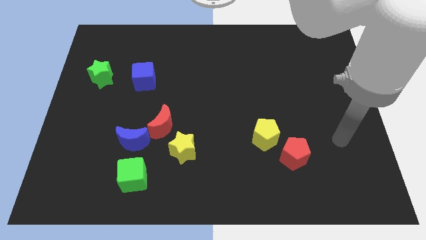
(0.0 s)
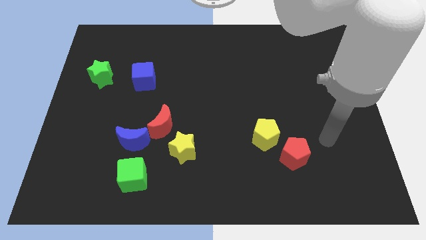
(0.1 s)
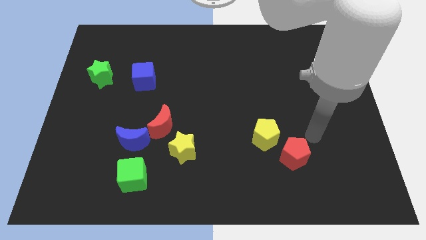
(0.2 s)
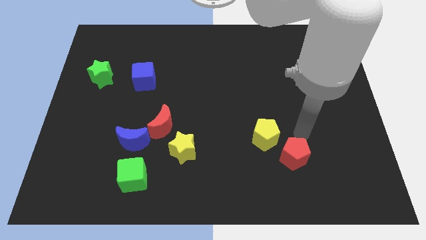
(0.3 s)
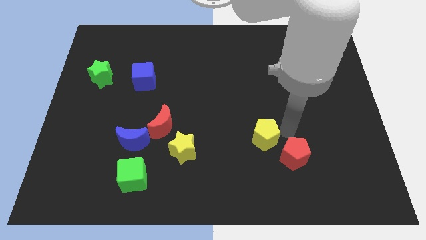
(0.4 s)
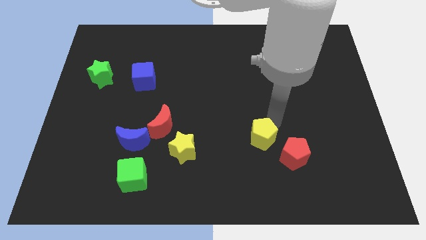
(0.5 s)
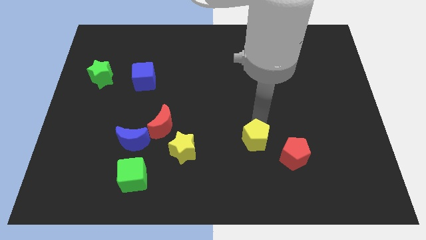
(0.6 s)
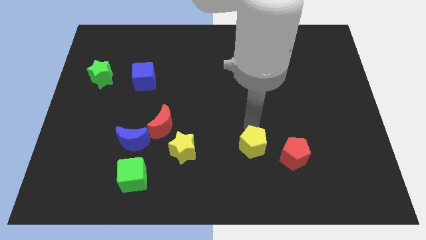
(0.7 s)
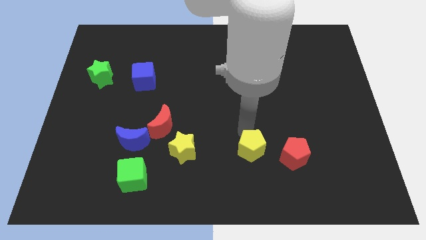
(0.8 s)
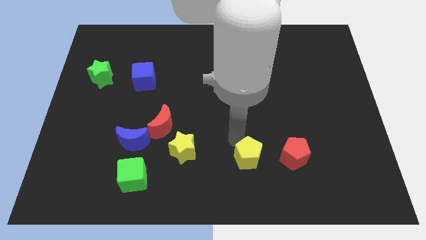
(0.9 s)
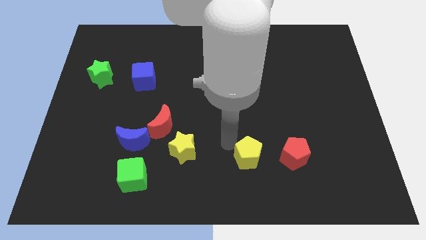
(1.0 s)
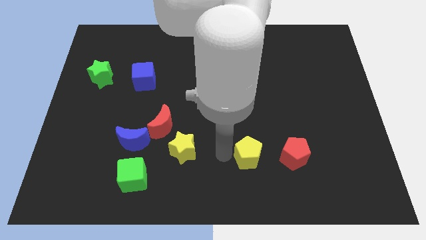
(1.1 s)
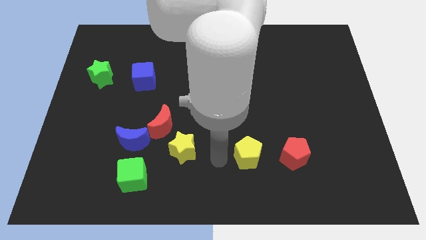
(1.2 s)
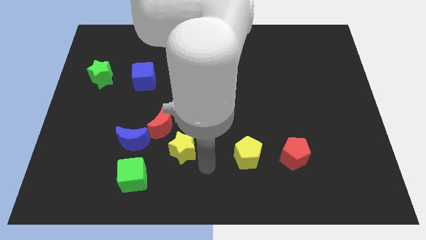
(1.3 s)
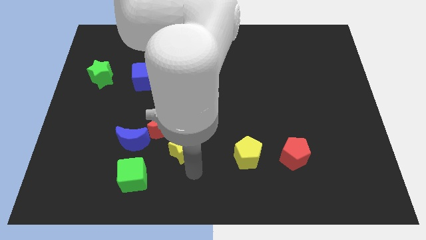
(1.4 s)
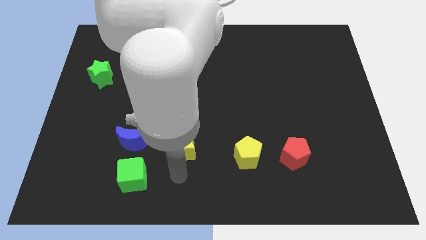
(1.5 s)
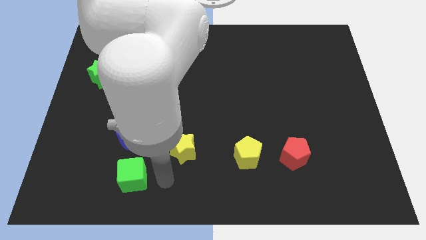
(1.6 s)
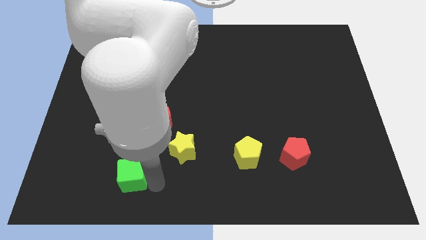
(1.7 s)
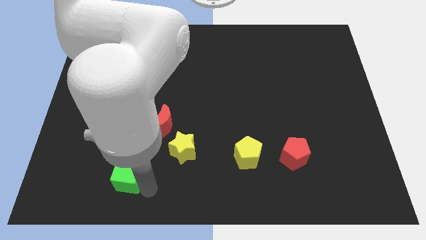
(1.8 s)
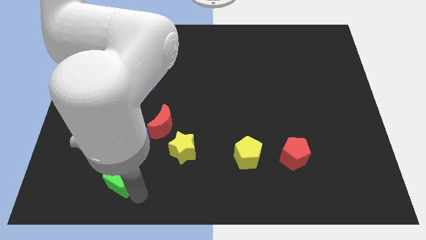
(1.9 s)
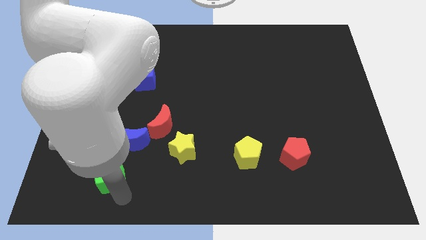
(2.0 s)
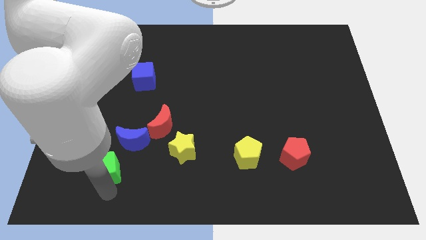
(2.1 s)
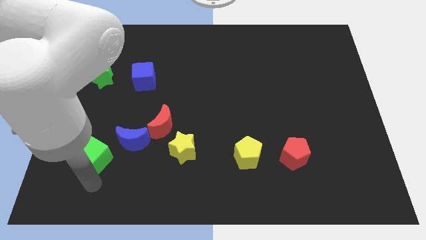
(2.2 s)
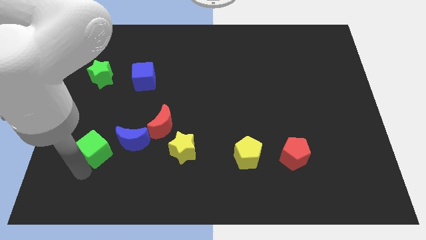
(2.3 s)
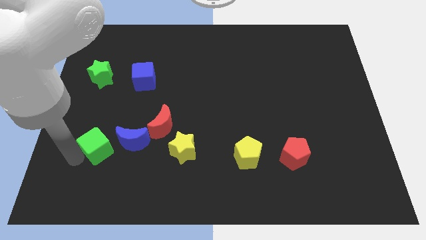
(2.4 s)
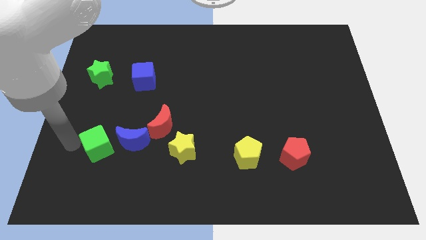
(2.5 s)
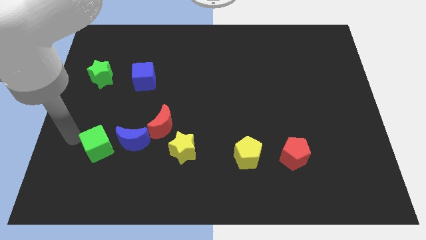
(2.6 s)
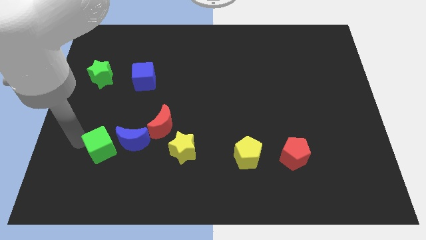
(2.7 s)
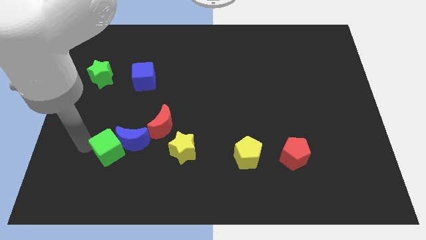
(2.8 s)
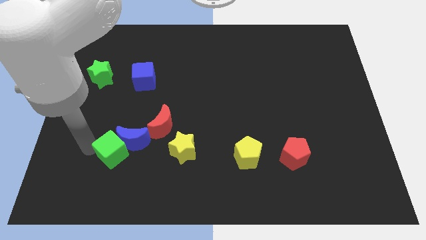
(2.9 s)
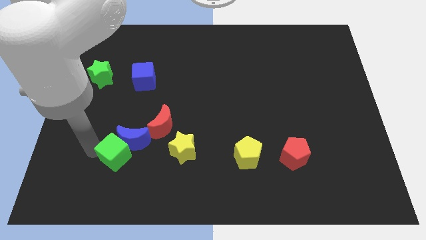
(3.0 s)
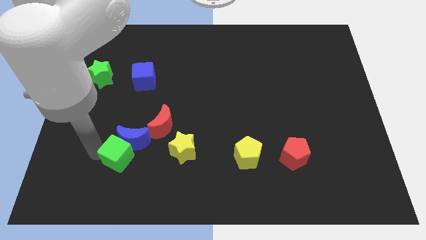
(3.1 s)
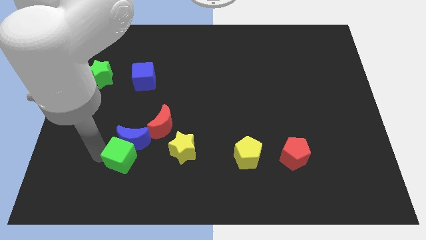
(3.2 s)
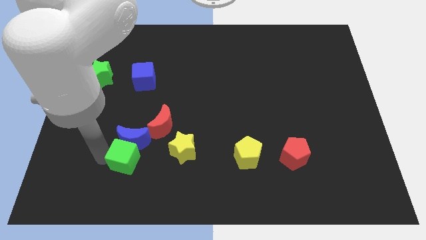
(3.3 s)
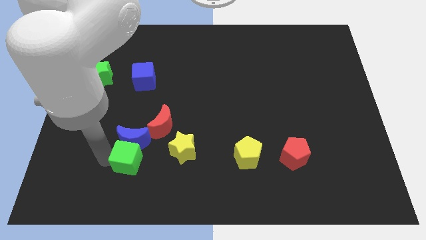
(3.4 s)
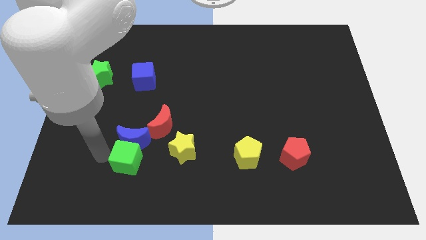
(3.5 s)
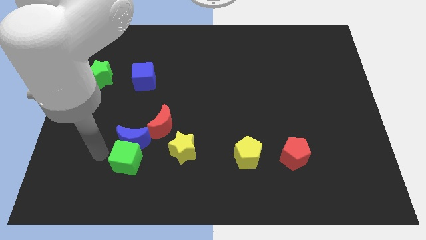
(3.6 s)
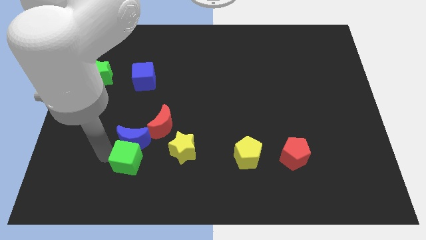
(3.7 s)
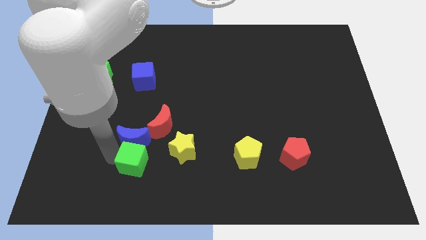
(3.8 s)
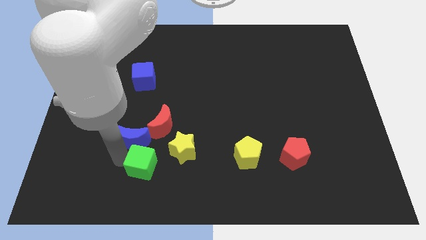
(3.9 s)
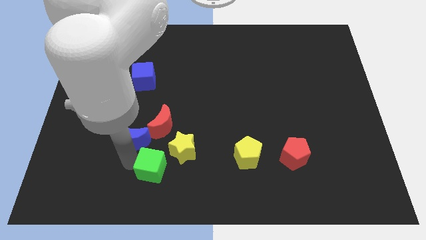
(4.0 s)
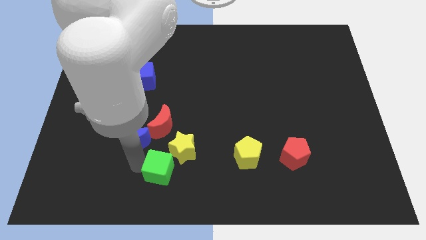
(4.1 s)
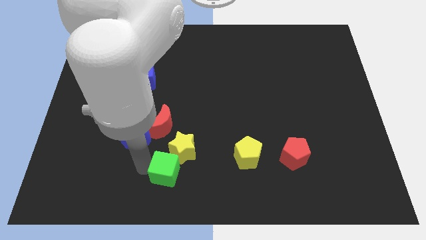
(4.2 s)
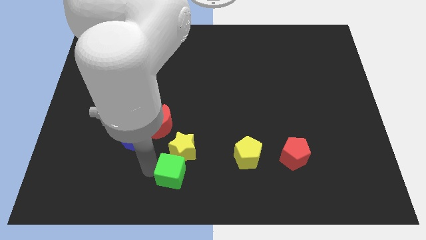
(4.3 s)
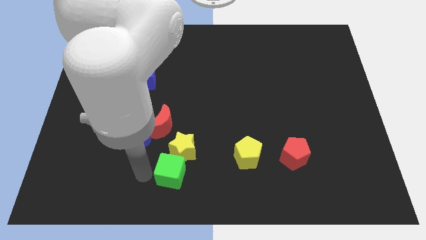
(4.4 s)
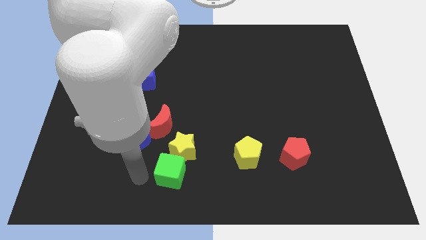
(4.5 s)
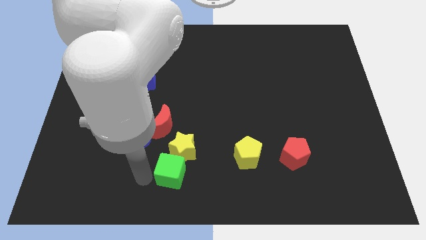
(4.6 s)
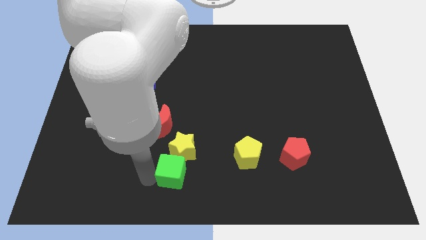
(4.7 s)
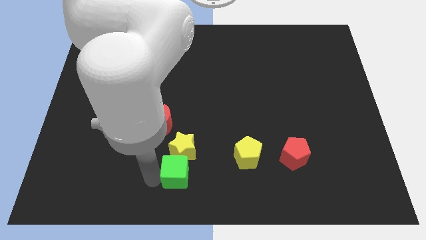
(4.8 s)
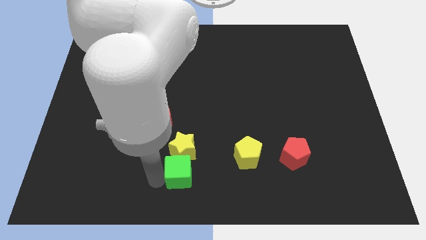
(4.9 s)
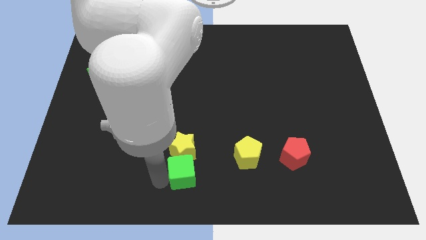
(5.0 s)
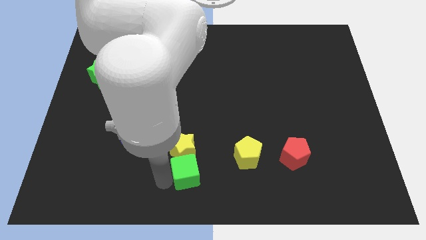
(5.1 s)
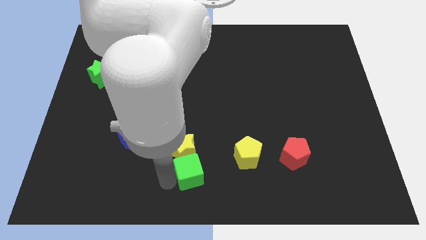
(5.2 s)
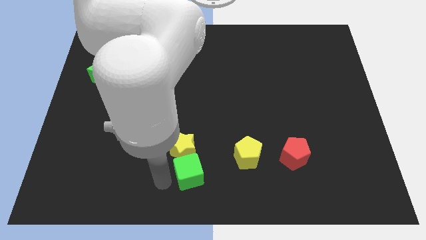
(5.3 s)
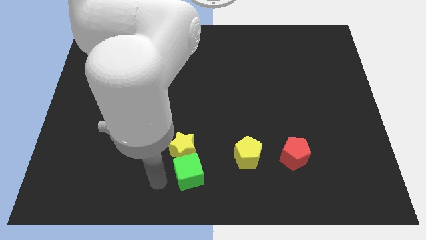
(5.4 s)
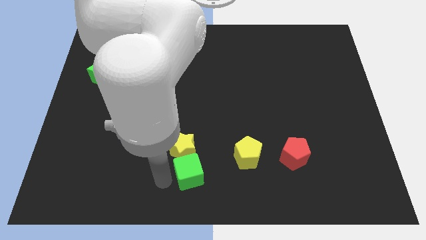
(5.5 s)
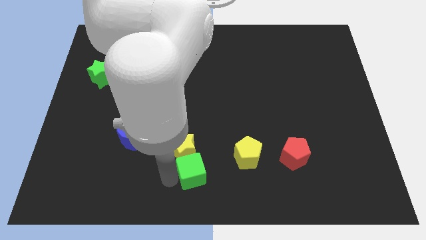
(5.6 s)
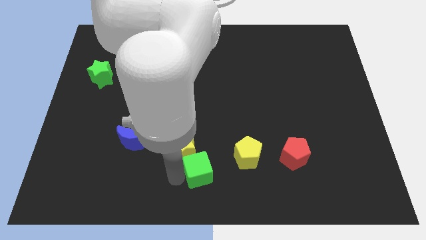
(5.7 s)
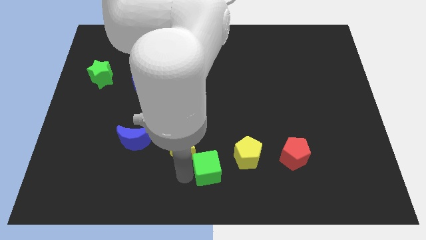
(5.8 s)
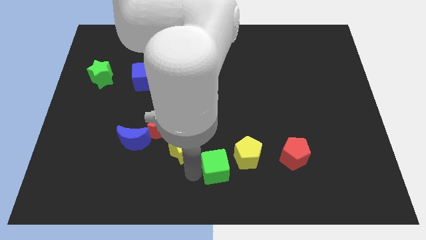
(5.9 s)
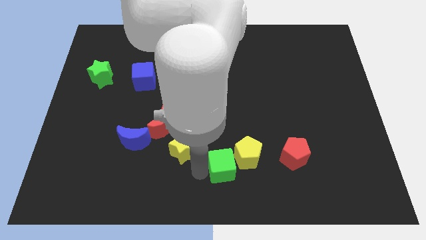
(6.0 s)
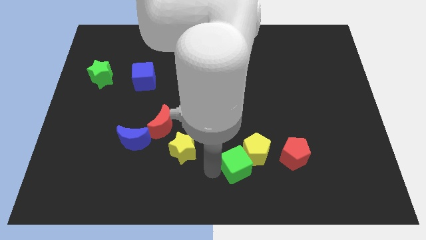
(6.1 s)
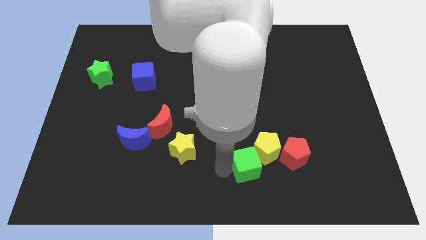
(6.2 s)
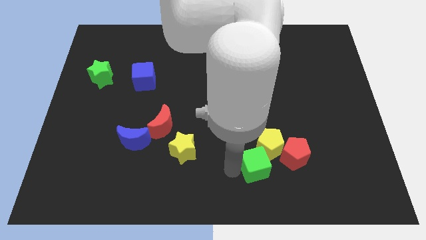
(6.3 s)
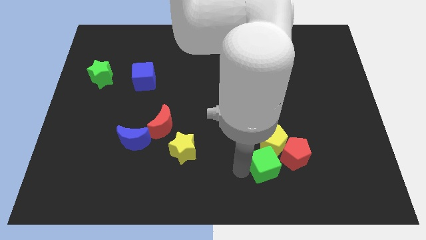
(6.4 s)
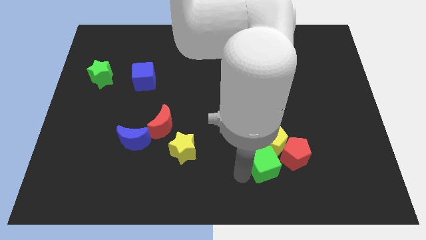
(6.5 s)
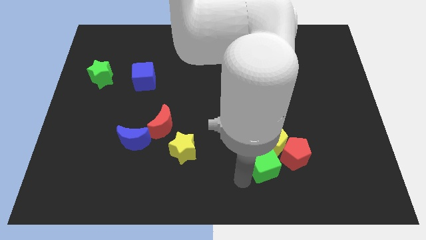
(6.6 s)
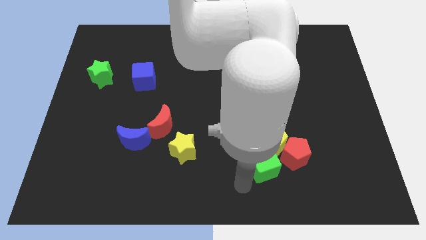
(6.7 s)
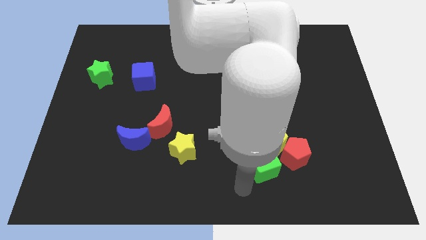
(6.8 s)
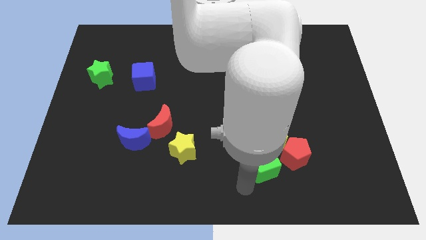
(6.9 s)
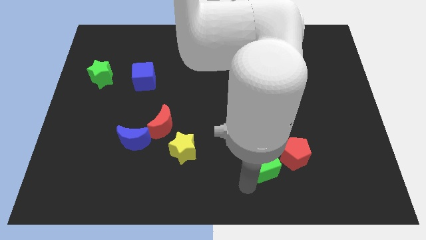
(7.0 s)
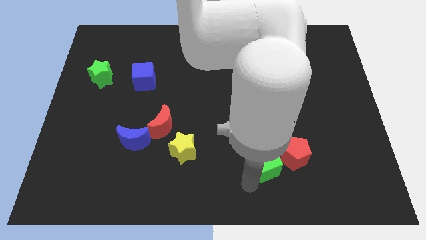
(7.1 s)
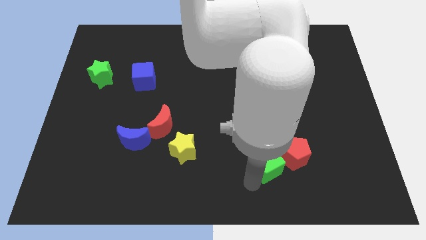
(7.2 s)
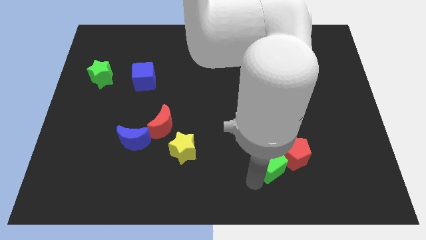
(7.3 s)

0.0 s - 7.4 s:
push the green cube to the red pentagon
